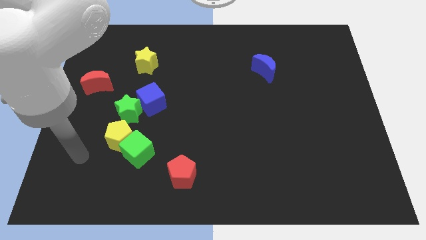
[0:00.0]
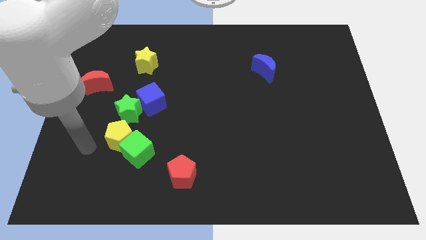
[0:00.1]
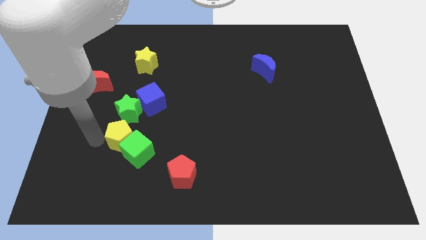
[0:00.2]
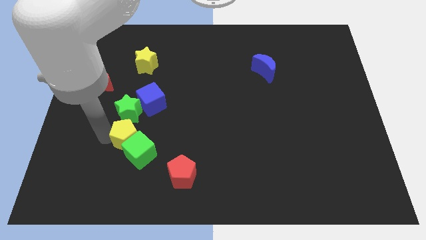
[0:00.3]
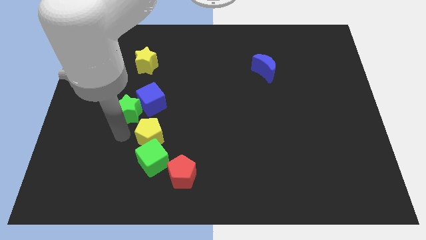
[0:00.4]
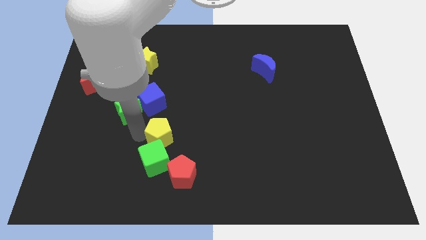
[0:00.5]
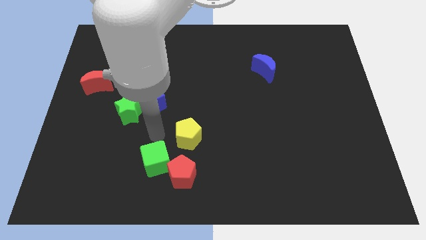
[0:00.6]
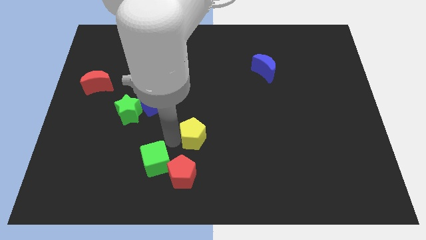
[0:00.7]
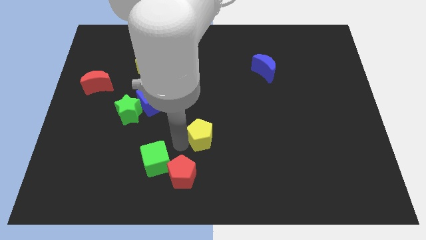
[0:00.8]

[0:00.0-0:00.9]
move the green cube away from the yellow pentagon

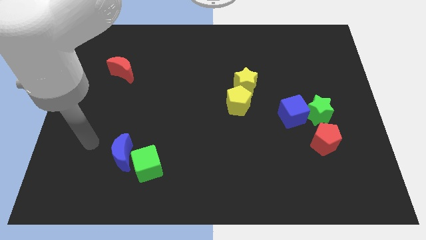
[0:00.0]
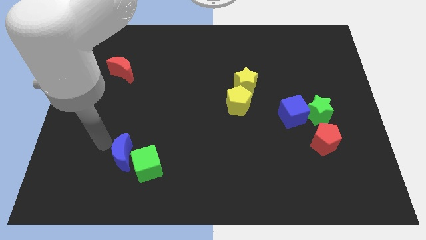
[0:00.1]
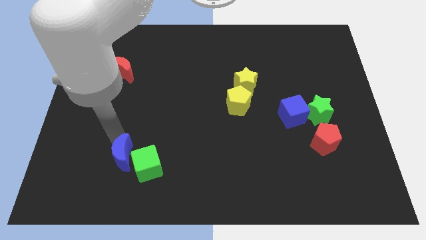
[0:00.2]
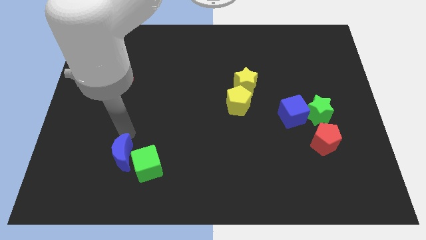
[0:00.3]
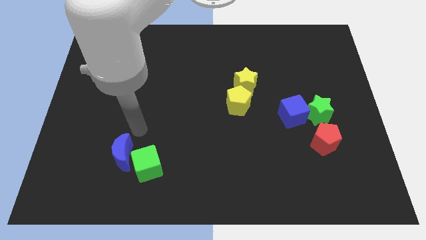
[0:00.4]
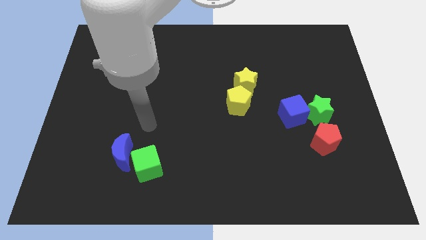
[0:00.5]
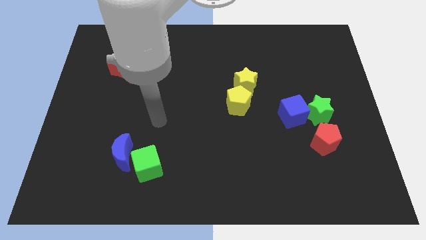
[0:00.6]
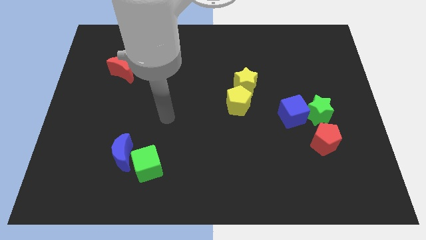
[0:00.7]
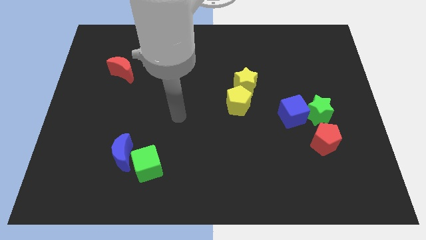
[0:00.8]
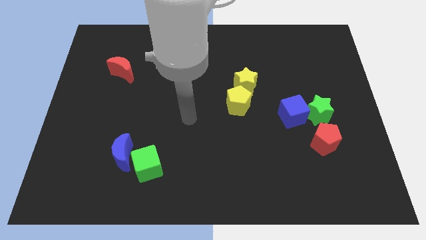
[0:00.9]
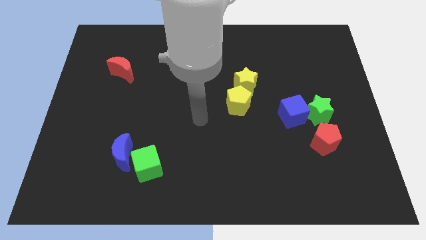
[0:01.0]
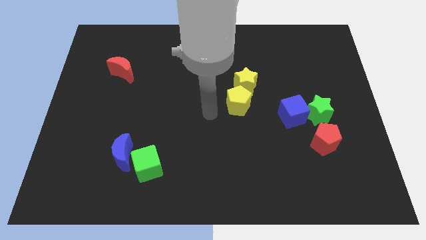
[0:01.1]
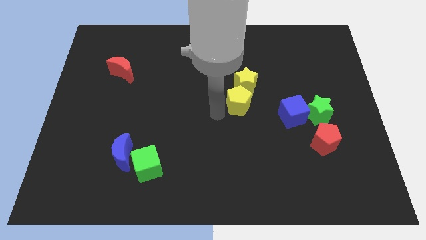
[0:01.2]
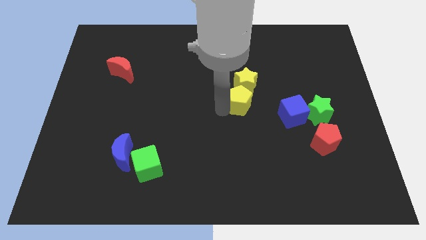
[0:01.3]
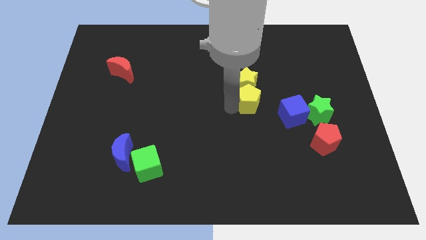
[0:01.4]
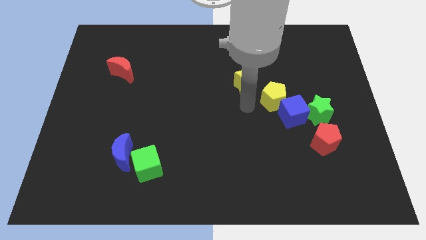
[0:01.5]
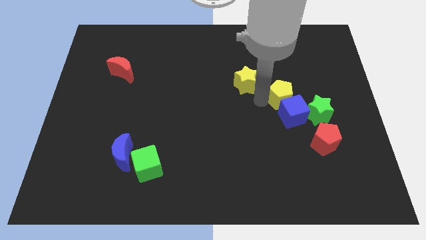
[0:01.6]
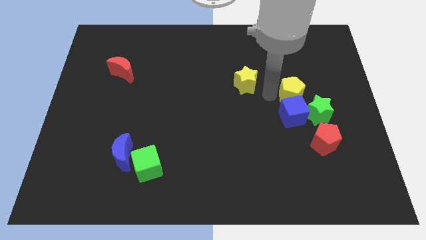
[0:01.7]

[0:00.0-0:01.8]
pull the yellow star apart from the yellow pentagon

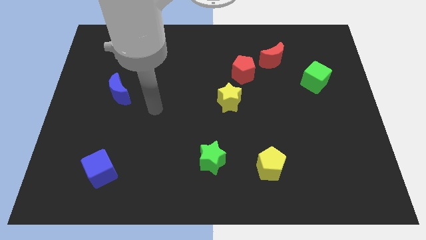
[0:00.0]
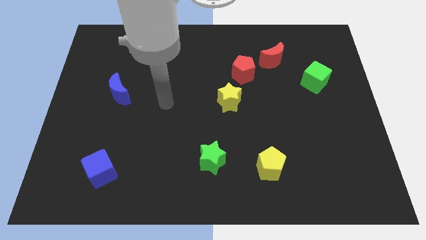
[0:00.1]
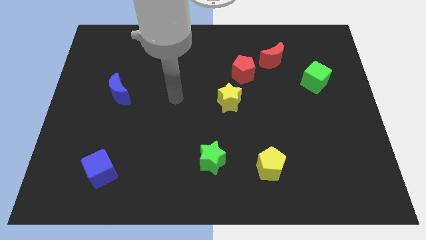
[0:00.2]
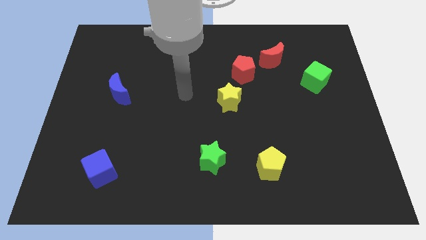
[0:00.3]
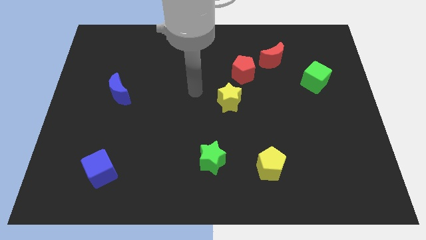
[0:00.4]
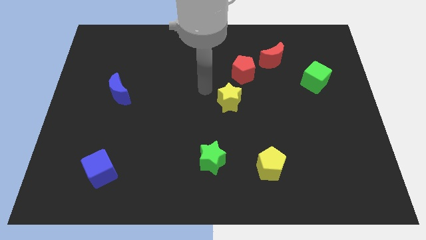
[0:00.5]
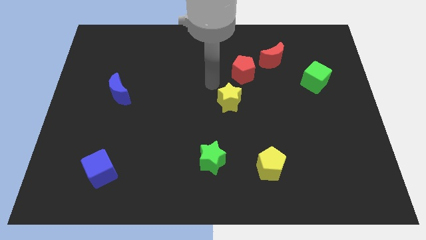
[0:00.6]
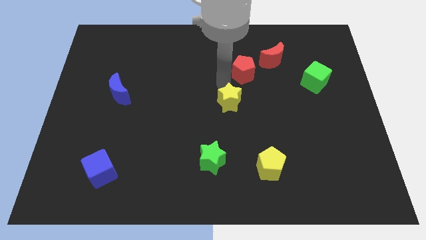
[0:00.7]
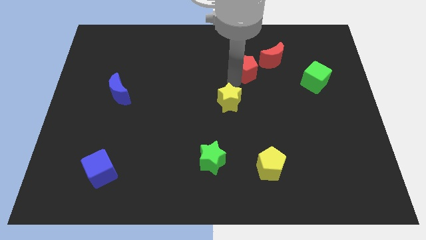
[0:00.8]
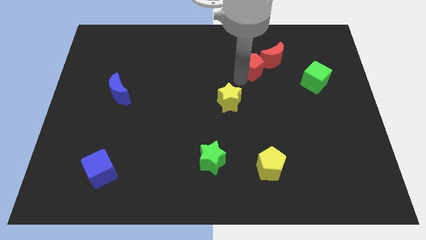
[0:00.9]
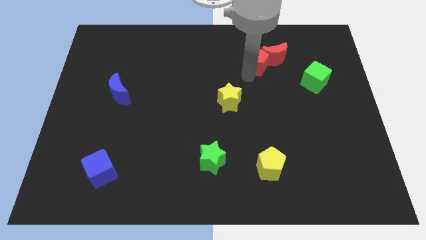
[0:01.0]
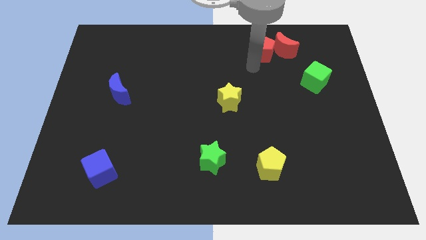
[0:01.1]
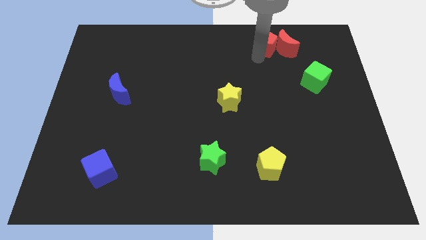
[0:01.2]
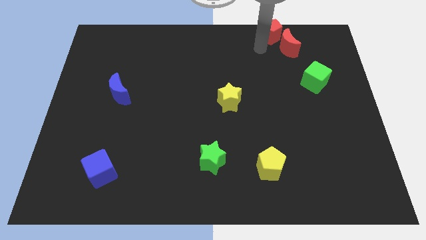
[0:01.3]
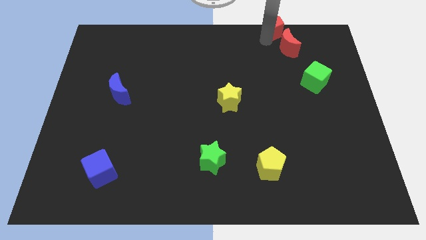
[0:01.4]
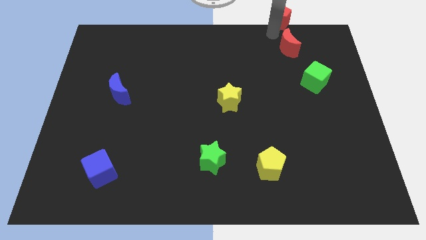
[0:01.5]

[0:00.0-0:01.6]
move the red moon away from the red pentagon

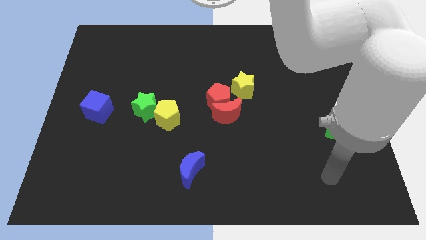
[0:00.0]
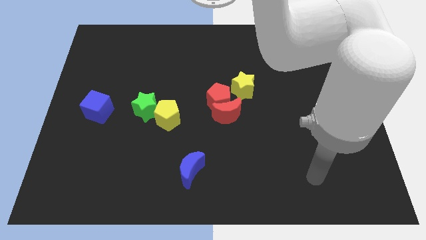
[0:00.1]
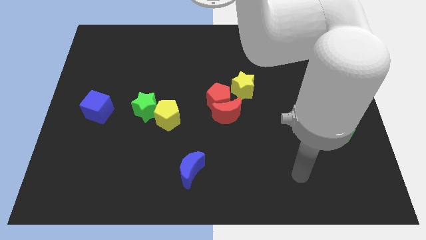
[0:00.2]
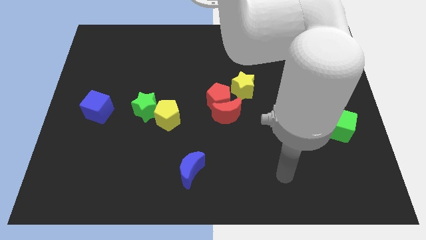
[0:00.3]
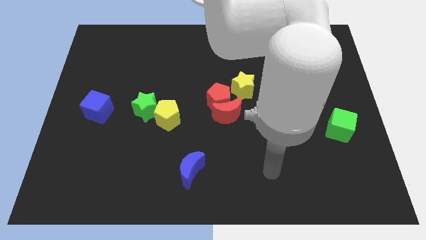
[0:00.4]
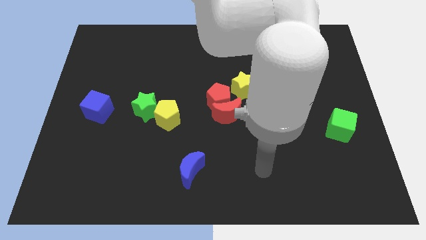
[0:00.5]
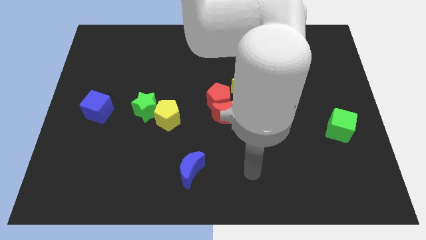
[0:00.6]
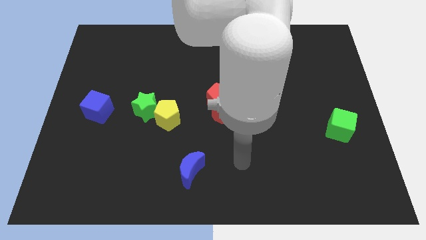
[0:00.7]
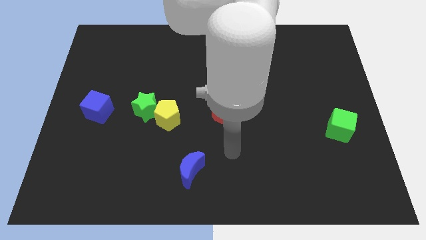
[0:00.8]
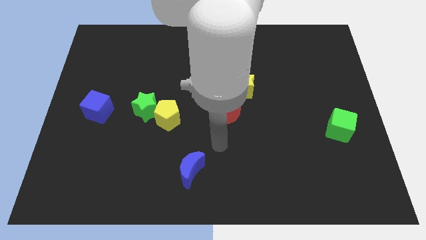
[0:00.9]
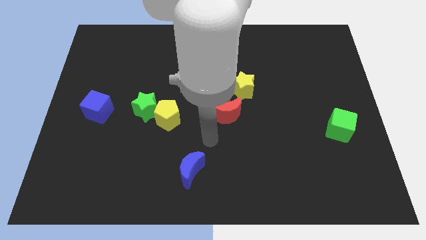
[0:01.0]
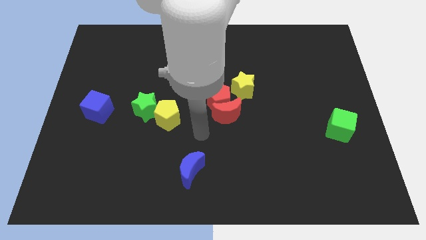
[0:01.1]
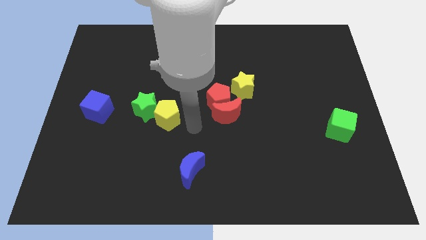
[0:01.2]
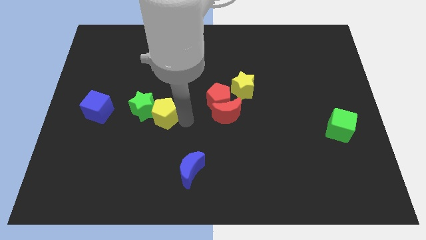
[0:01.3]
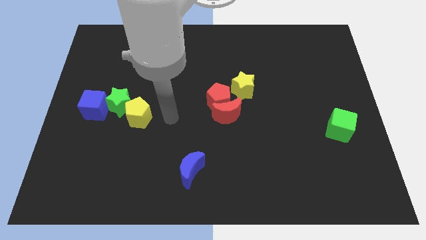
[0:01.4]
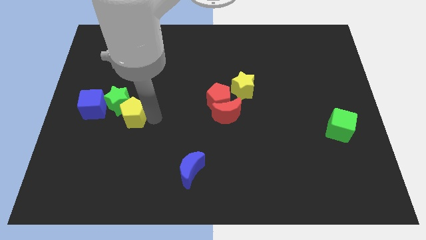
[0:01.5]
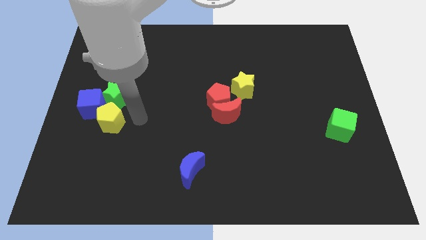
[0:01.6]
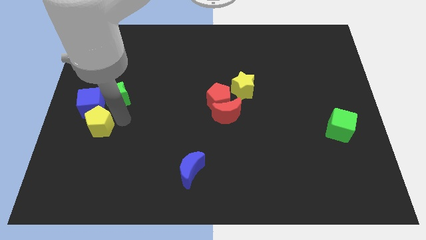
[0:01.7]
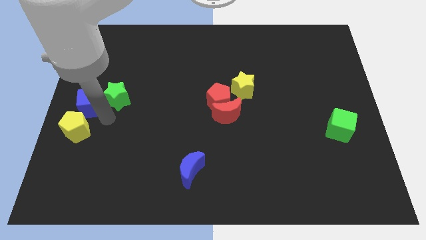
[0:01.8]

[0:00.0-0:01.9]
move the green star away from the yellow pentagon

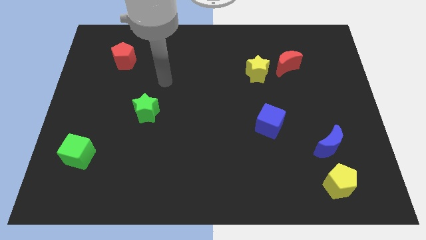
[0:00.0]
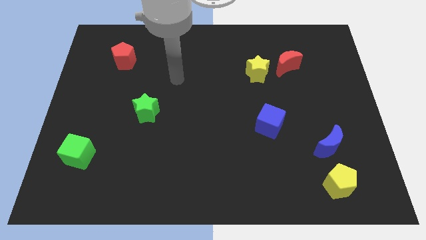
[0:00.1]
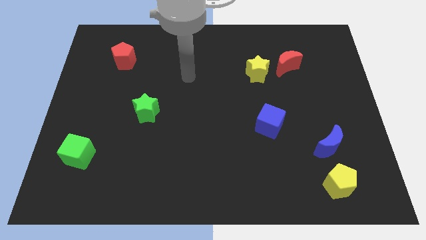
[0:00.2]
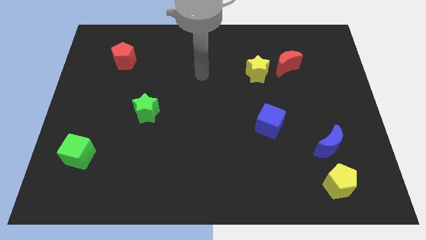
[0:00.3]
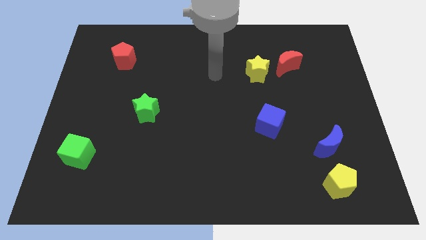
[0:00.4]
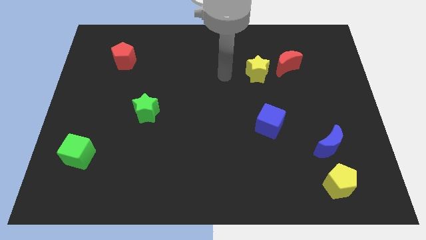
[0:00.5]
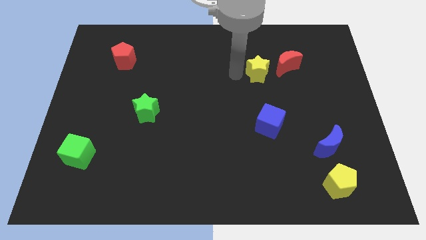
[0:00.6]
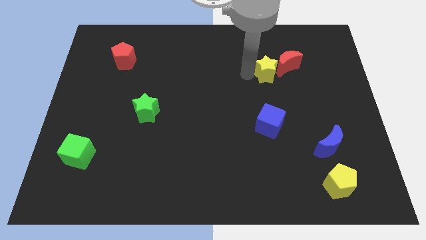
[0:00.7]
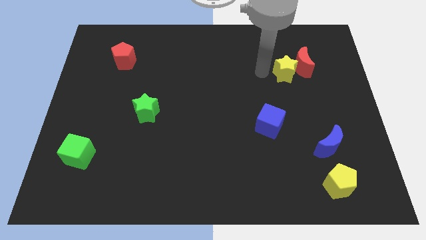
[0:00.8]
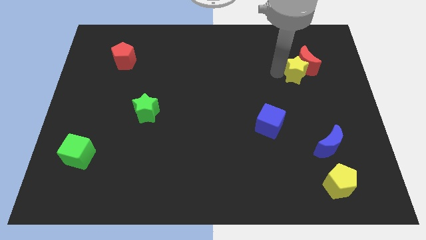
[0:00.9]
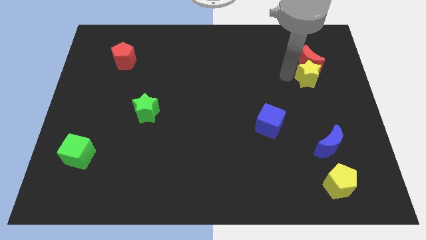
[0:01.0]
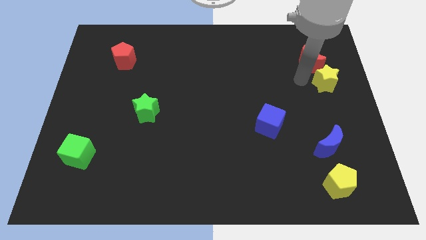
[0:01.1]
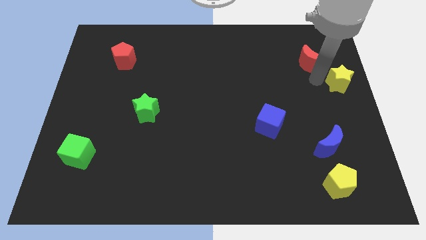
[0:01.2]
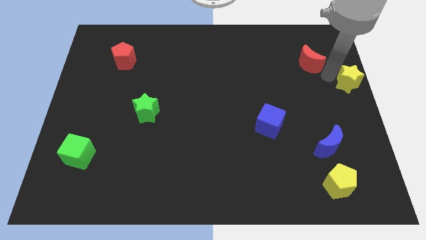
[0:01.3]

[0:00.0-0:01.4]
move the red moon away from the yellow star

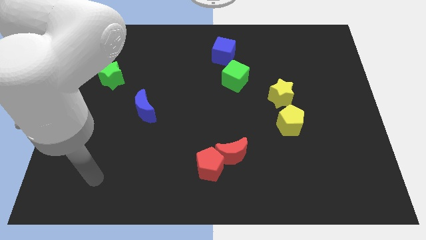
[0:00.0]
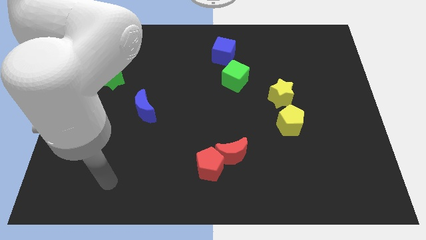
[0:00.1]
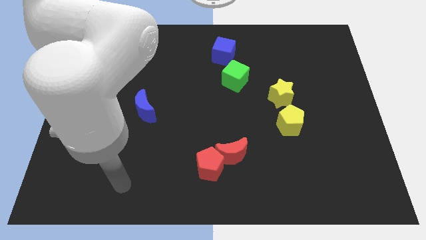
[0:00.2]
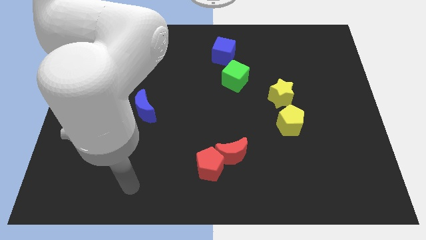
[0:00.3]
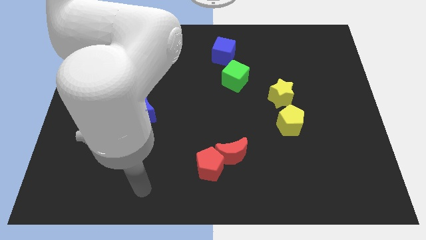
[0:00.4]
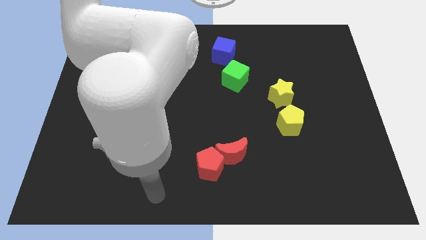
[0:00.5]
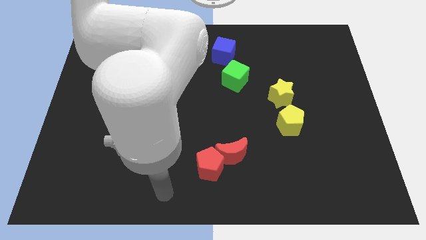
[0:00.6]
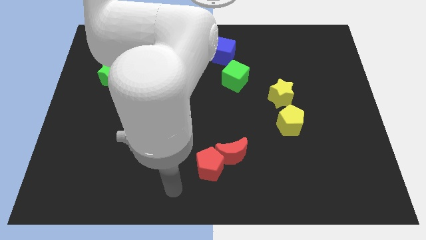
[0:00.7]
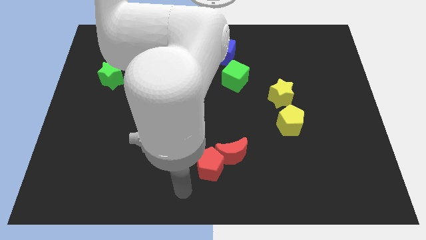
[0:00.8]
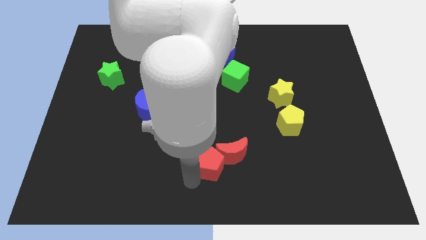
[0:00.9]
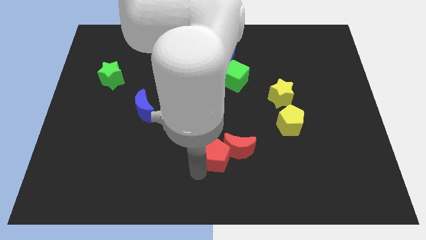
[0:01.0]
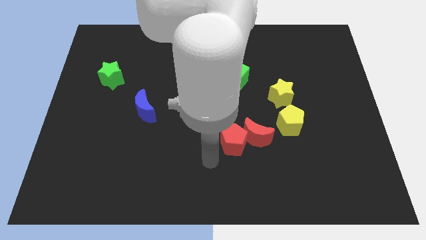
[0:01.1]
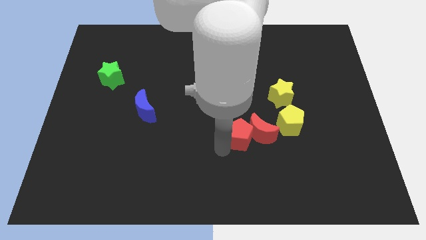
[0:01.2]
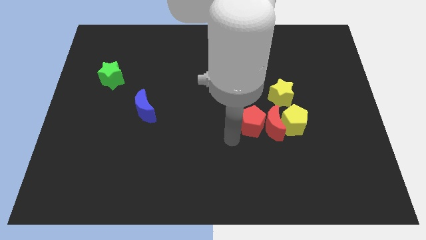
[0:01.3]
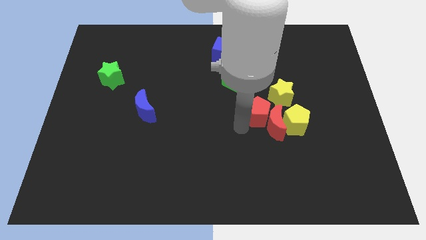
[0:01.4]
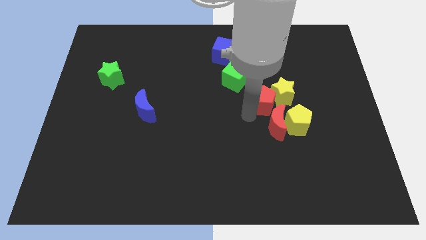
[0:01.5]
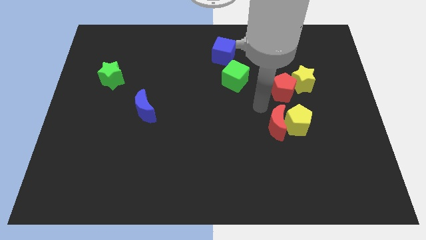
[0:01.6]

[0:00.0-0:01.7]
separate the red moon from the red pentagon
